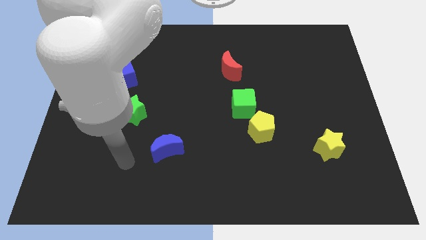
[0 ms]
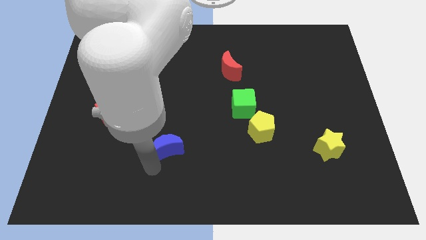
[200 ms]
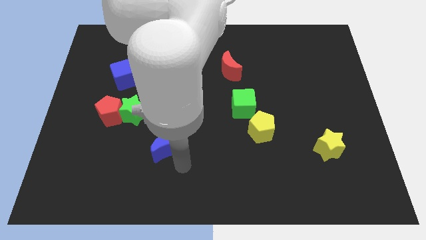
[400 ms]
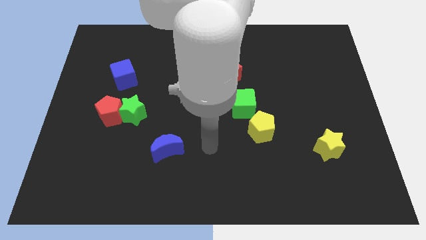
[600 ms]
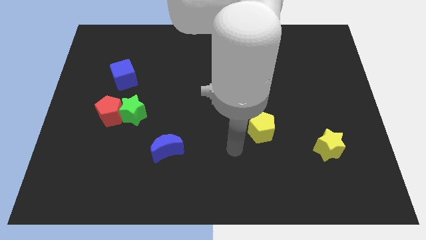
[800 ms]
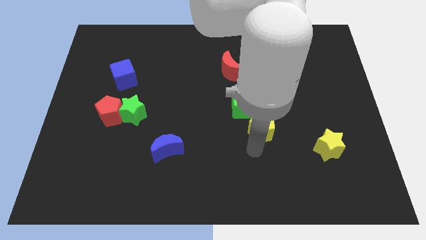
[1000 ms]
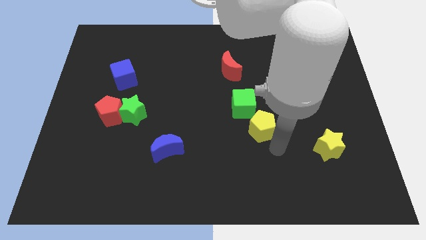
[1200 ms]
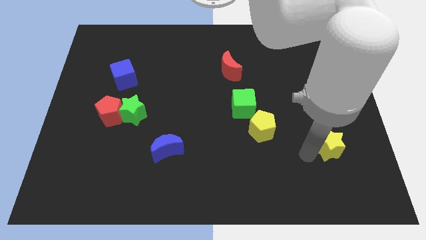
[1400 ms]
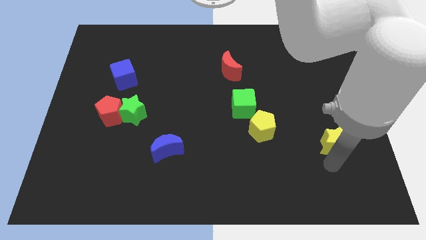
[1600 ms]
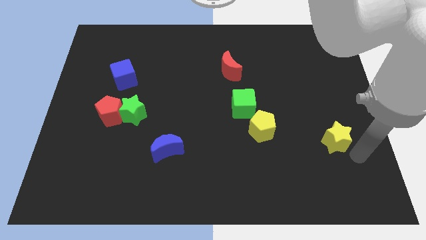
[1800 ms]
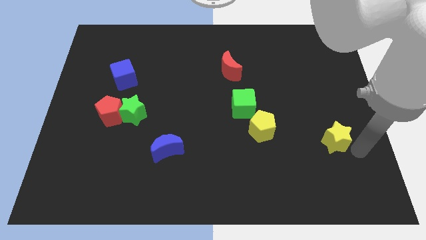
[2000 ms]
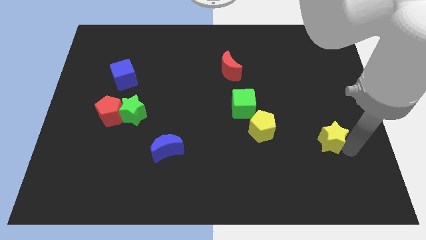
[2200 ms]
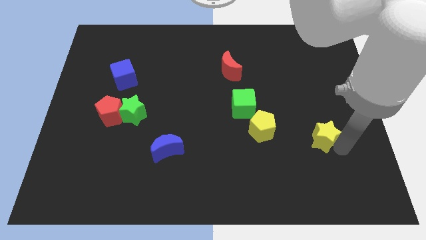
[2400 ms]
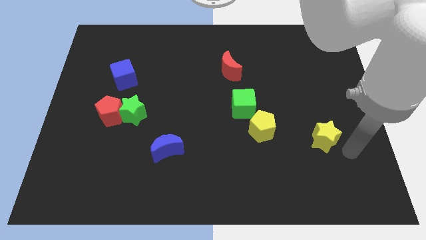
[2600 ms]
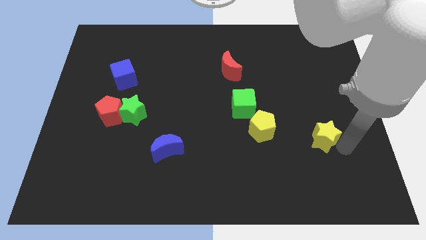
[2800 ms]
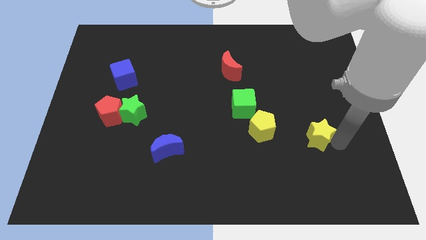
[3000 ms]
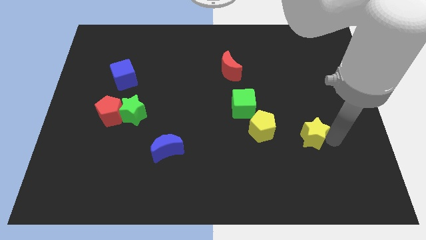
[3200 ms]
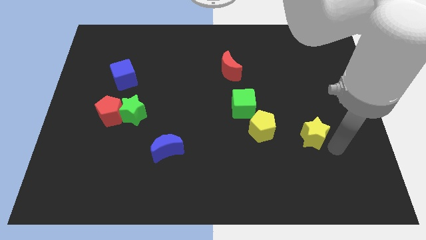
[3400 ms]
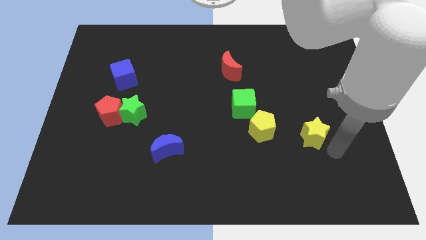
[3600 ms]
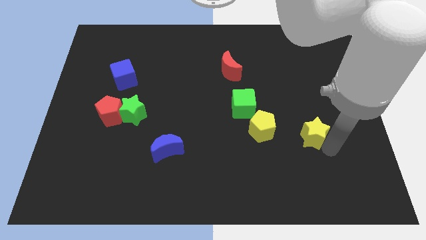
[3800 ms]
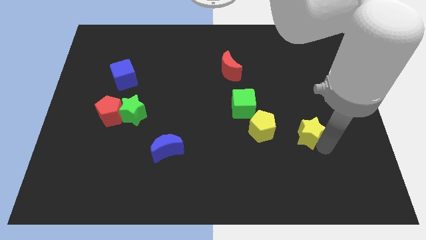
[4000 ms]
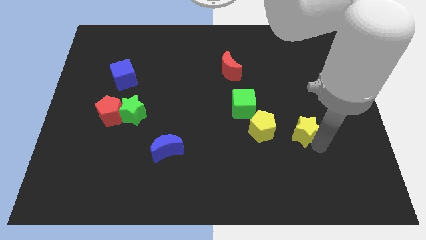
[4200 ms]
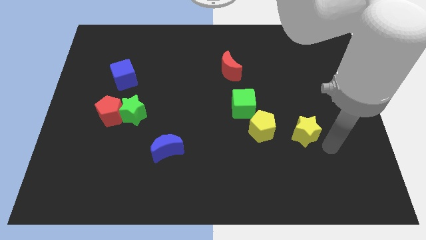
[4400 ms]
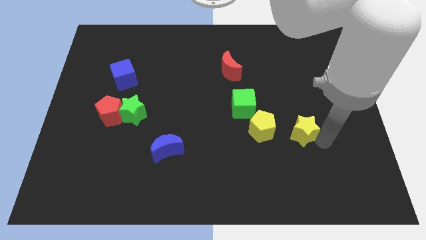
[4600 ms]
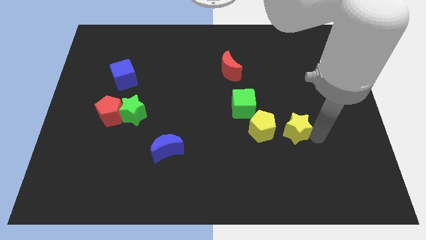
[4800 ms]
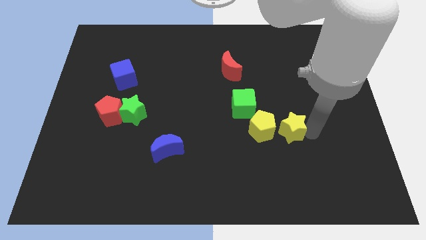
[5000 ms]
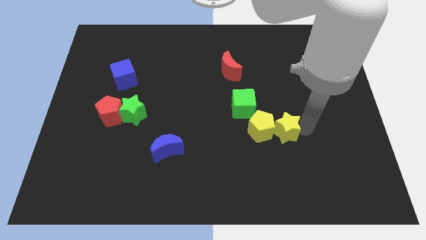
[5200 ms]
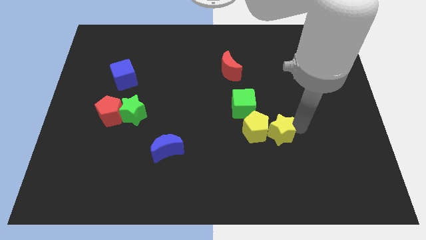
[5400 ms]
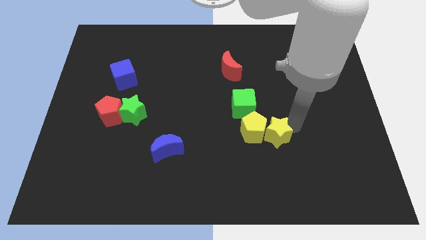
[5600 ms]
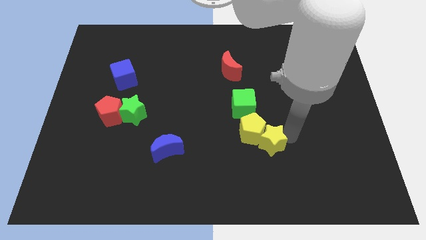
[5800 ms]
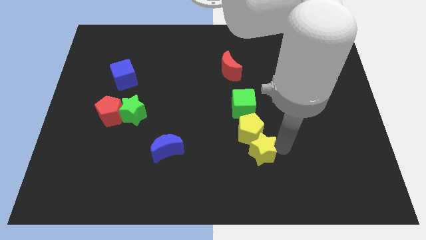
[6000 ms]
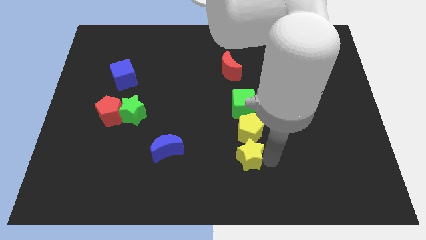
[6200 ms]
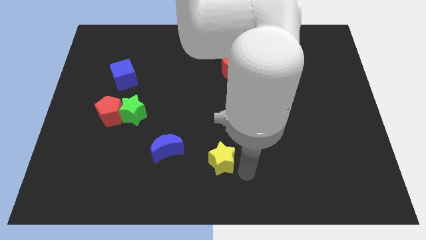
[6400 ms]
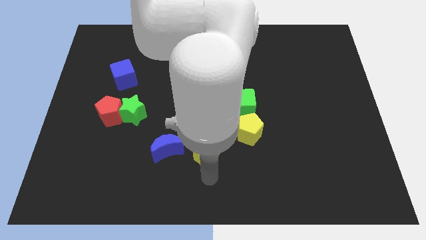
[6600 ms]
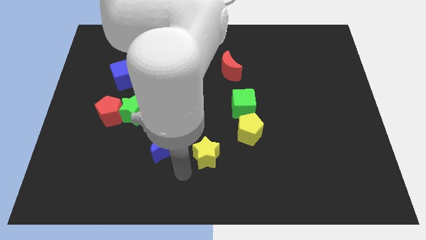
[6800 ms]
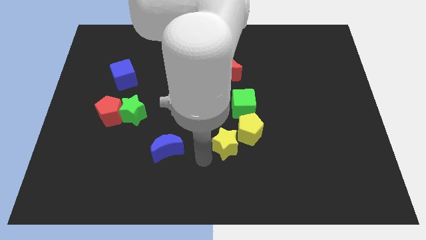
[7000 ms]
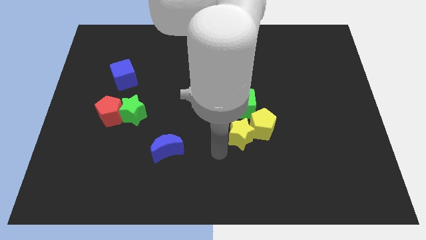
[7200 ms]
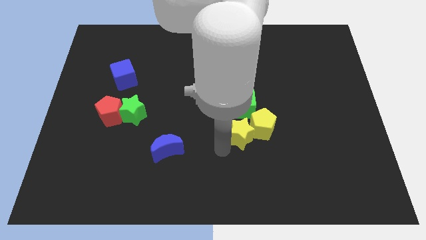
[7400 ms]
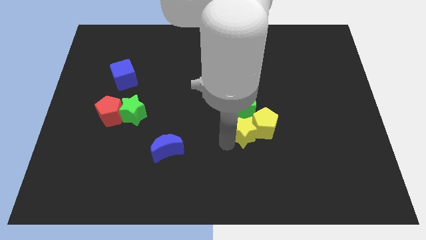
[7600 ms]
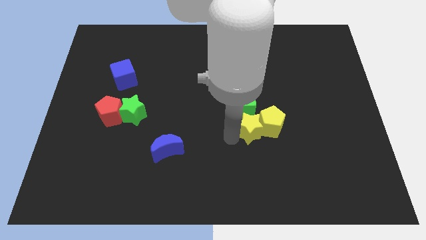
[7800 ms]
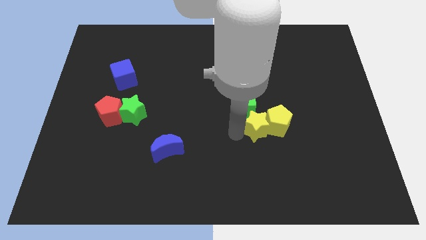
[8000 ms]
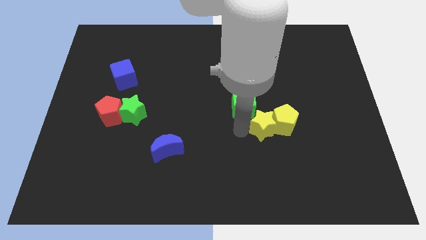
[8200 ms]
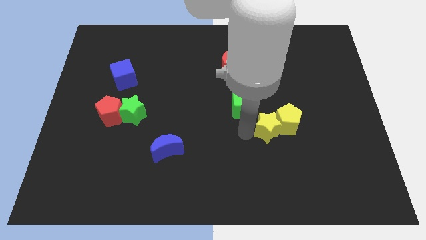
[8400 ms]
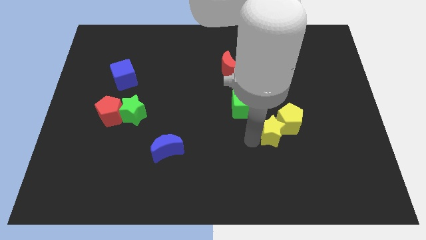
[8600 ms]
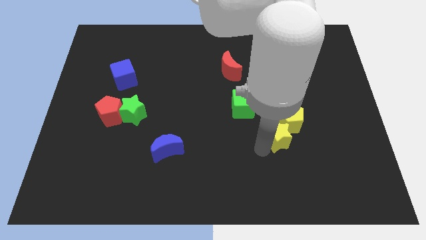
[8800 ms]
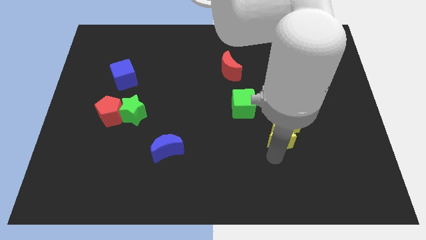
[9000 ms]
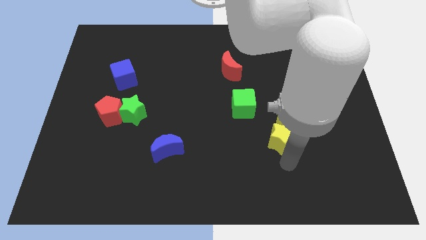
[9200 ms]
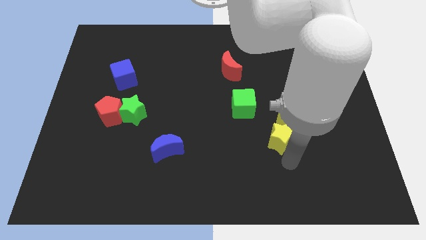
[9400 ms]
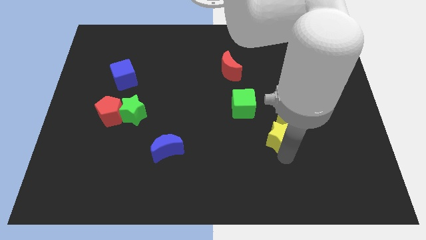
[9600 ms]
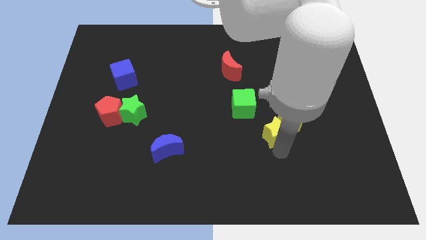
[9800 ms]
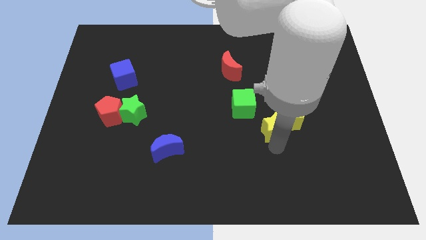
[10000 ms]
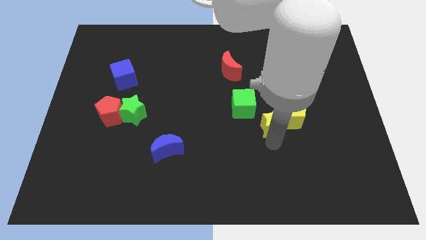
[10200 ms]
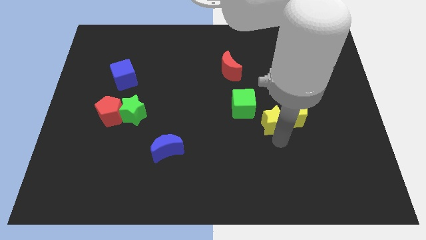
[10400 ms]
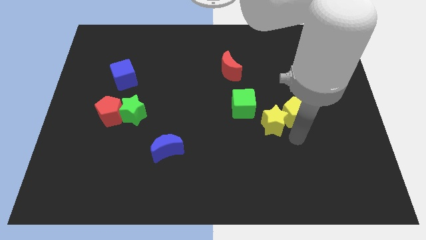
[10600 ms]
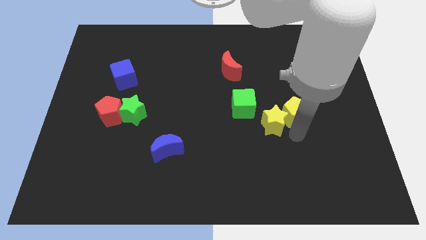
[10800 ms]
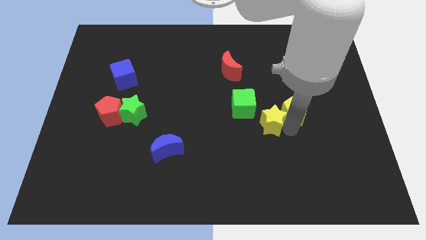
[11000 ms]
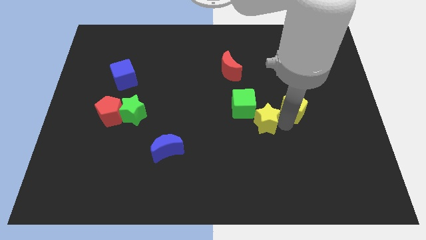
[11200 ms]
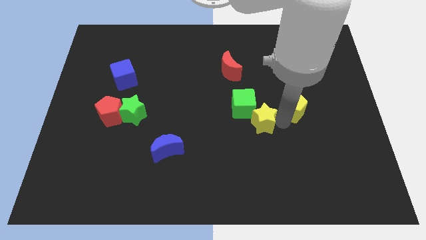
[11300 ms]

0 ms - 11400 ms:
move the yellow star to the green cube

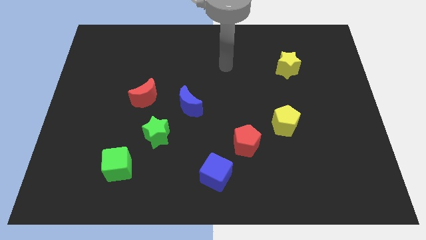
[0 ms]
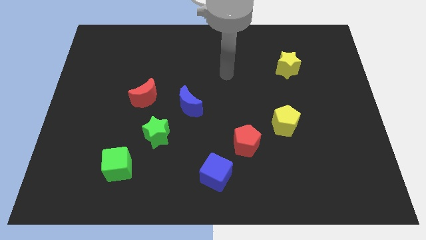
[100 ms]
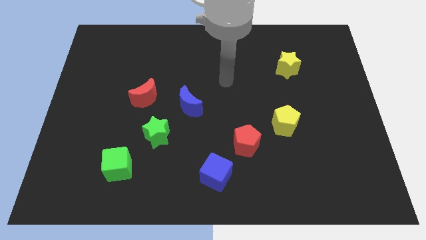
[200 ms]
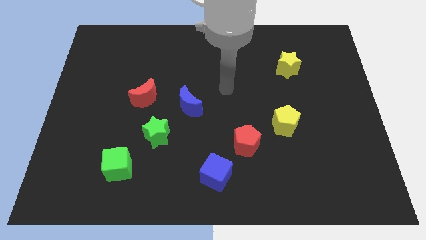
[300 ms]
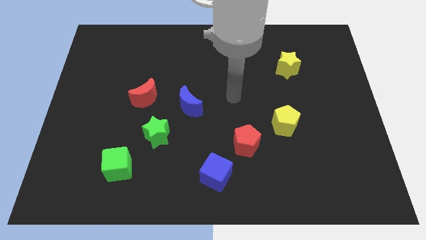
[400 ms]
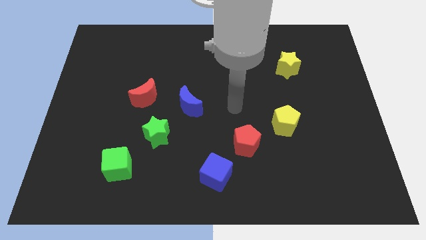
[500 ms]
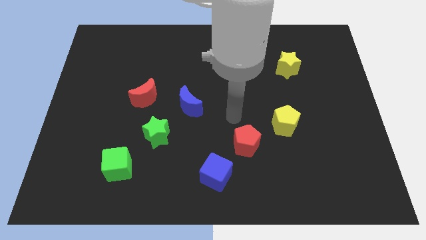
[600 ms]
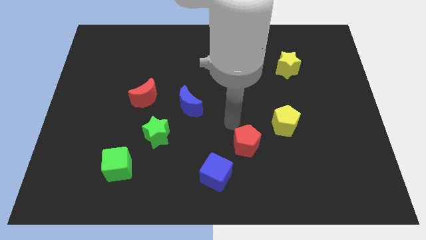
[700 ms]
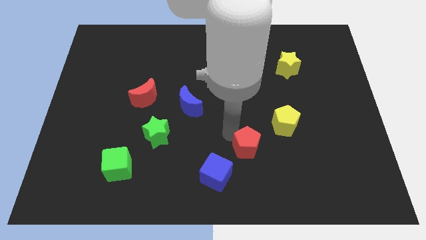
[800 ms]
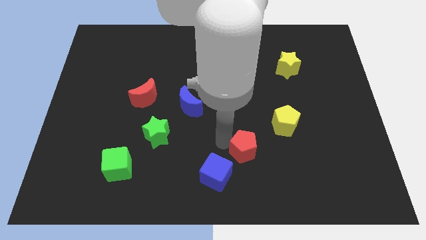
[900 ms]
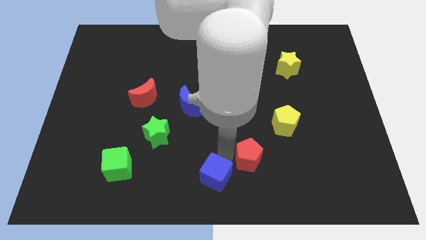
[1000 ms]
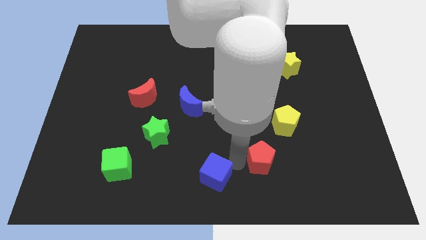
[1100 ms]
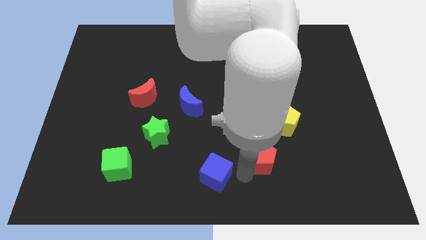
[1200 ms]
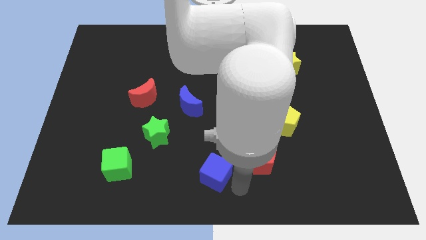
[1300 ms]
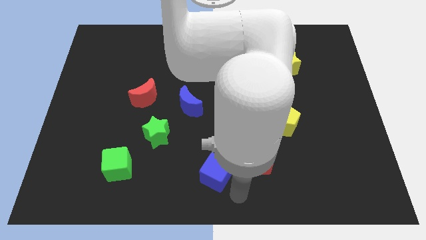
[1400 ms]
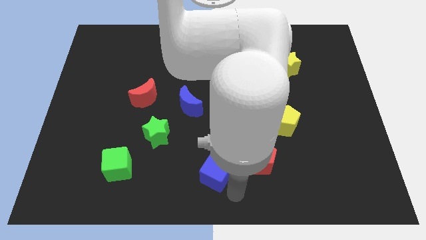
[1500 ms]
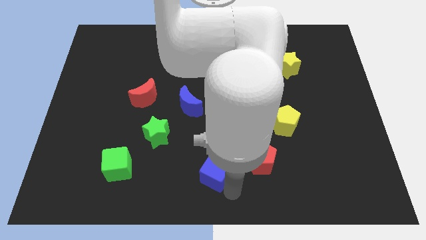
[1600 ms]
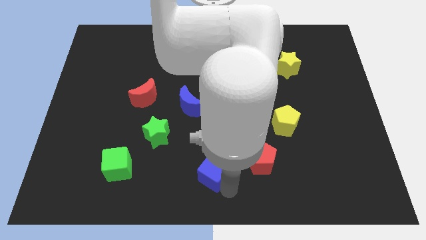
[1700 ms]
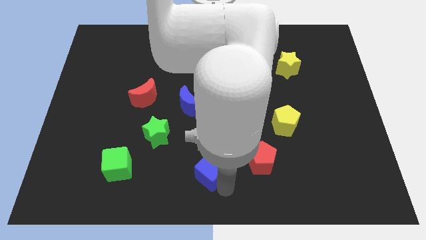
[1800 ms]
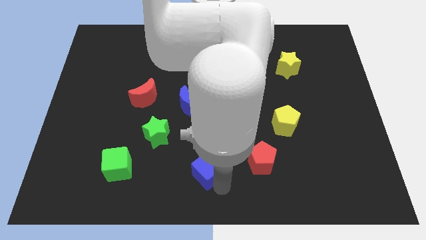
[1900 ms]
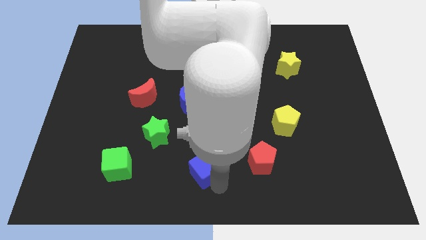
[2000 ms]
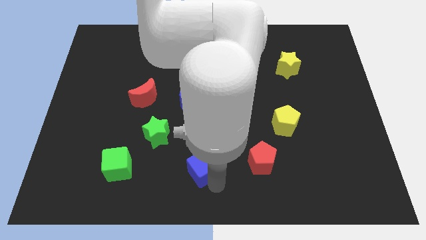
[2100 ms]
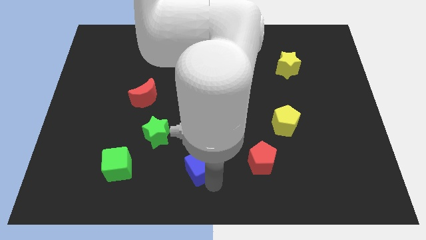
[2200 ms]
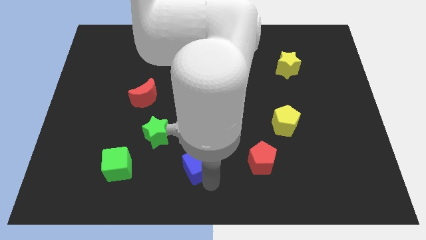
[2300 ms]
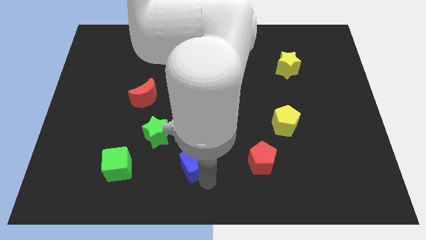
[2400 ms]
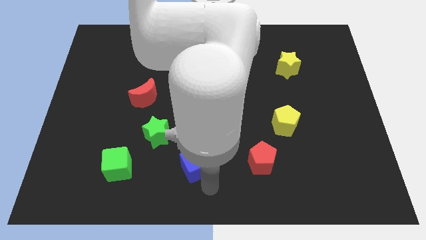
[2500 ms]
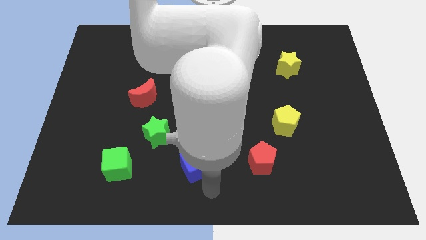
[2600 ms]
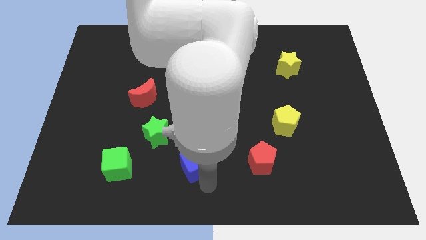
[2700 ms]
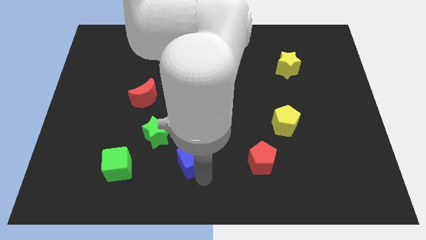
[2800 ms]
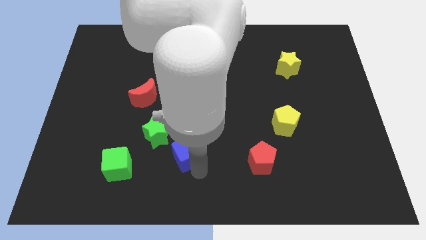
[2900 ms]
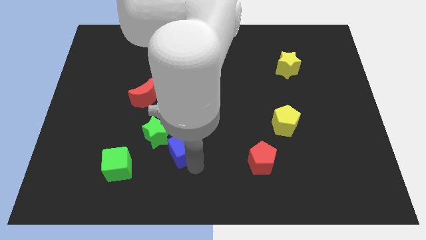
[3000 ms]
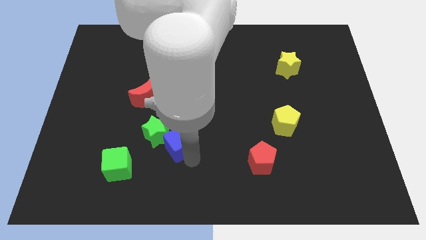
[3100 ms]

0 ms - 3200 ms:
push the blue cube next to the green star
